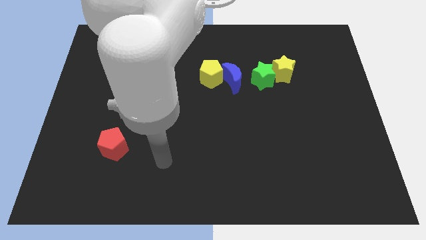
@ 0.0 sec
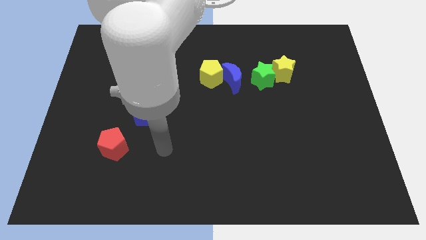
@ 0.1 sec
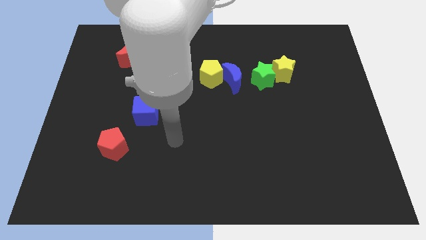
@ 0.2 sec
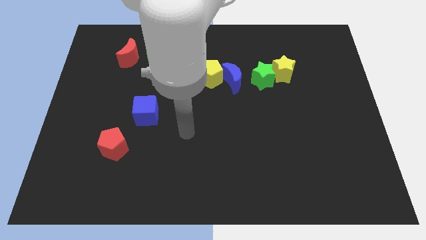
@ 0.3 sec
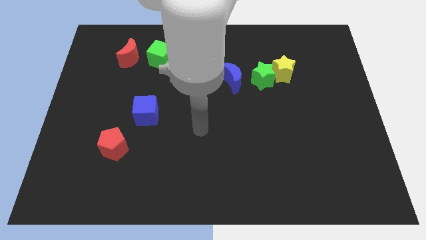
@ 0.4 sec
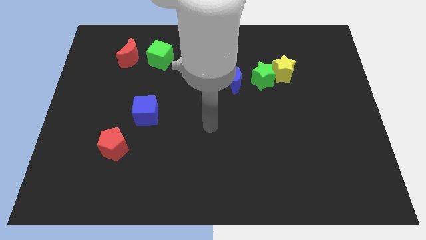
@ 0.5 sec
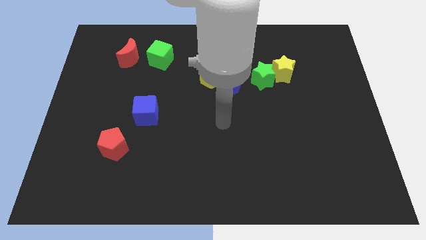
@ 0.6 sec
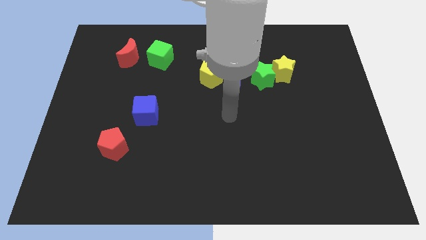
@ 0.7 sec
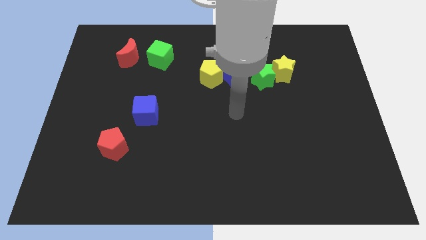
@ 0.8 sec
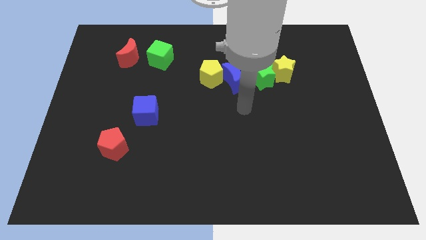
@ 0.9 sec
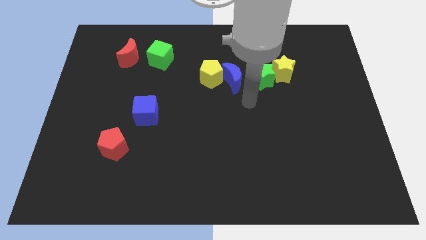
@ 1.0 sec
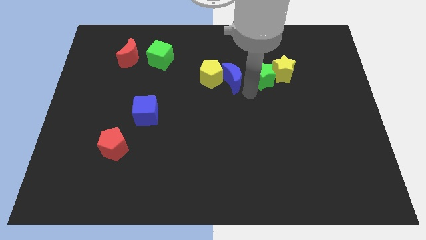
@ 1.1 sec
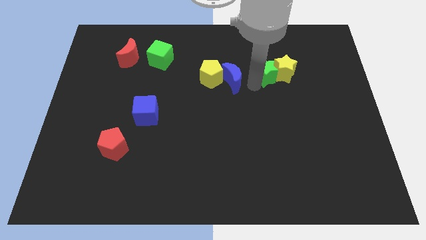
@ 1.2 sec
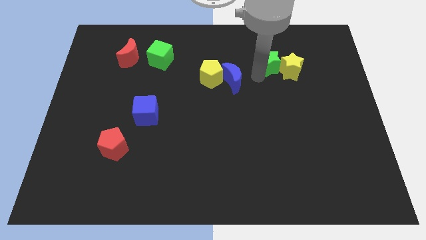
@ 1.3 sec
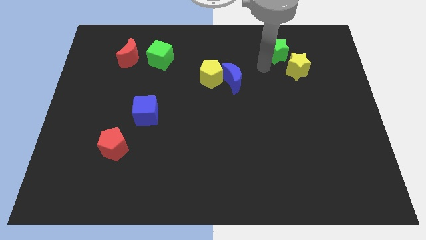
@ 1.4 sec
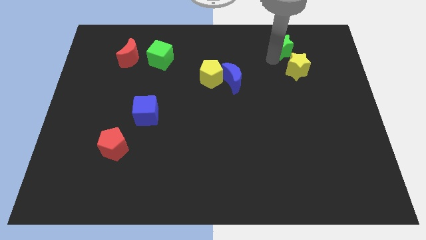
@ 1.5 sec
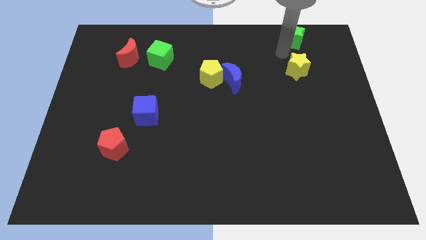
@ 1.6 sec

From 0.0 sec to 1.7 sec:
move the yellow star away from the green star

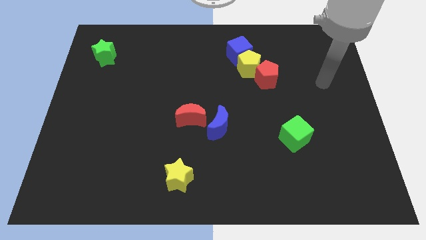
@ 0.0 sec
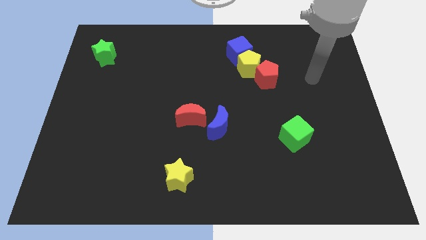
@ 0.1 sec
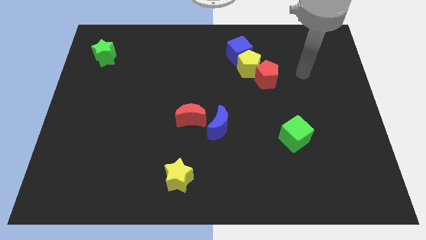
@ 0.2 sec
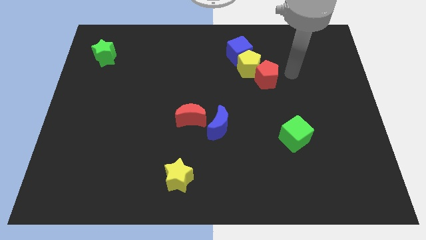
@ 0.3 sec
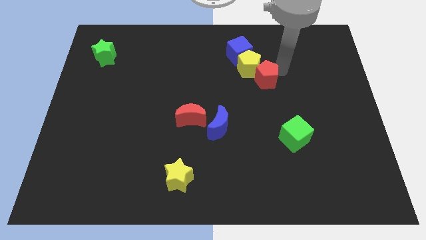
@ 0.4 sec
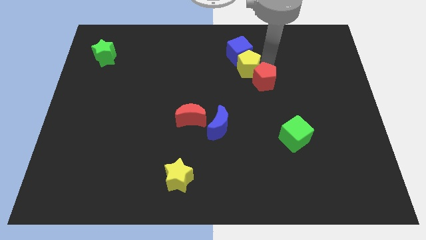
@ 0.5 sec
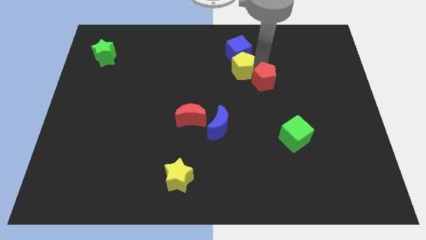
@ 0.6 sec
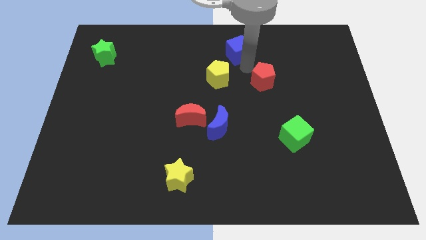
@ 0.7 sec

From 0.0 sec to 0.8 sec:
separate the red pentagon from the yellow pentagon

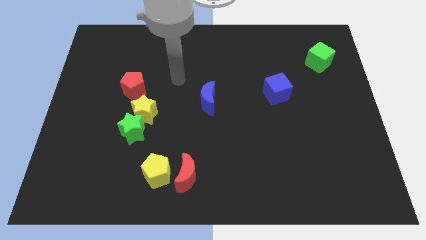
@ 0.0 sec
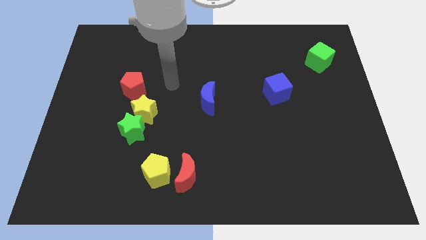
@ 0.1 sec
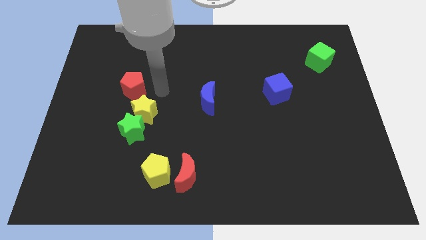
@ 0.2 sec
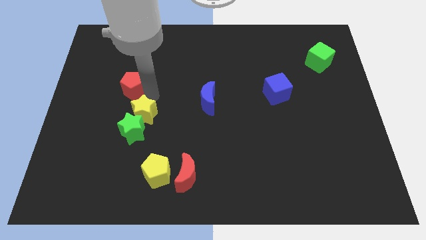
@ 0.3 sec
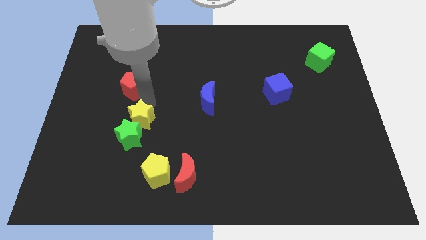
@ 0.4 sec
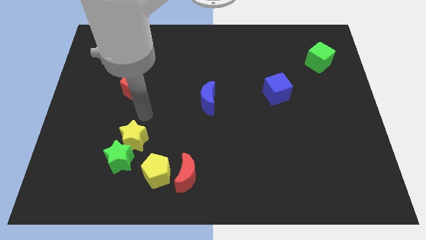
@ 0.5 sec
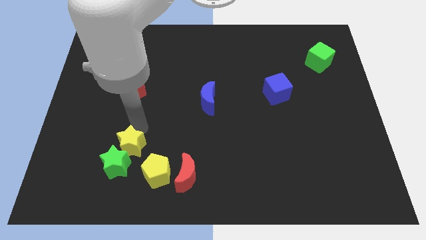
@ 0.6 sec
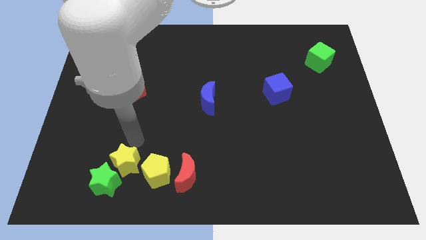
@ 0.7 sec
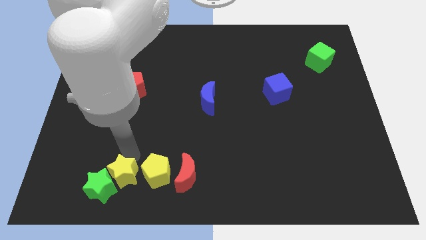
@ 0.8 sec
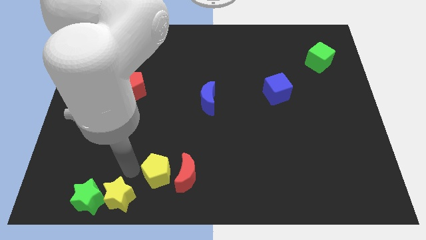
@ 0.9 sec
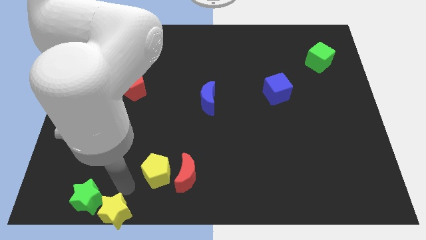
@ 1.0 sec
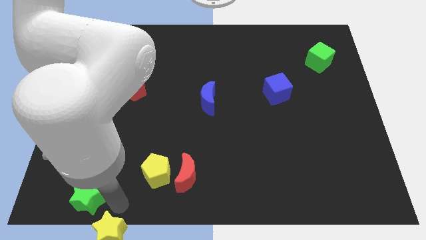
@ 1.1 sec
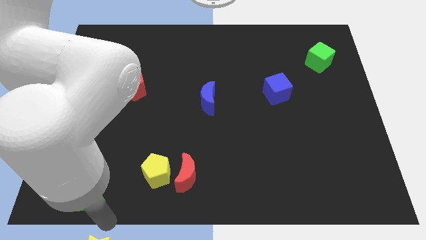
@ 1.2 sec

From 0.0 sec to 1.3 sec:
move the green star away from the yellow star

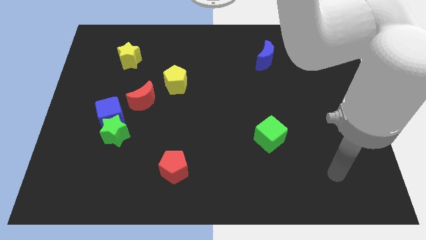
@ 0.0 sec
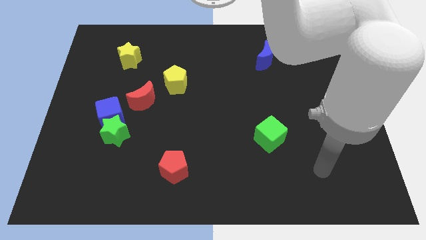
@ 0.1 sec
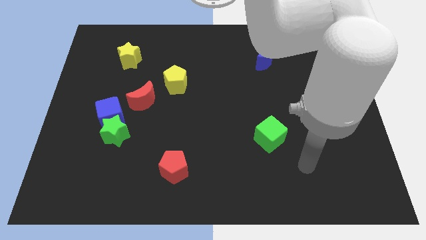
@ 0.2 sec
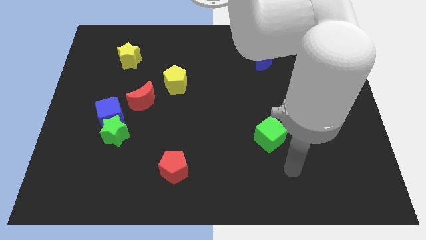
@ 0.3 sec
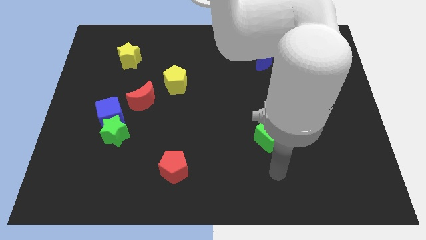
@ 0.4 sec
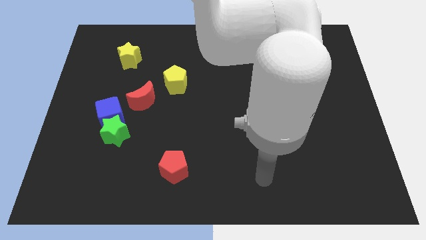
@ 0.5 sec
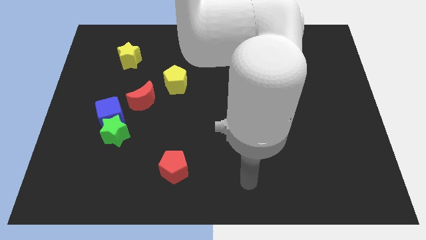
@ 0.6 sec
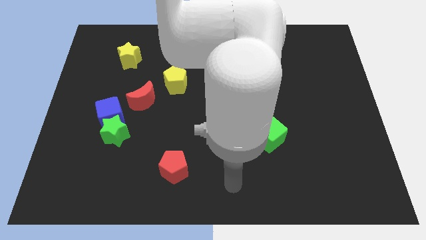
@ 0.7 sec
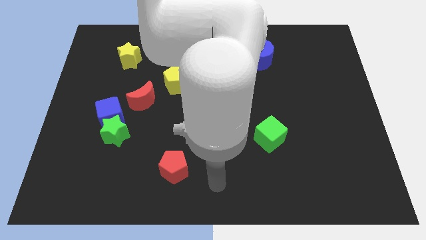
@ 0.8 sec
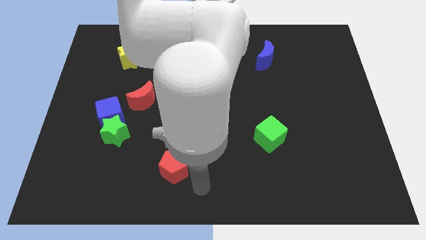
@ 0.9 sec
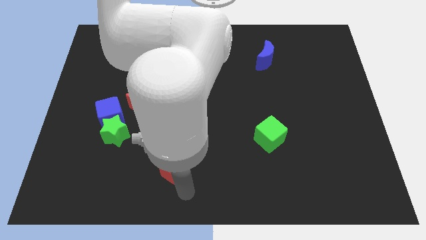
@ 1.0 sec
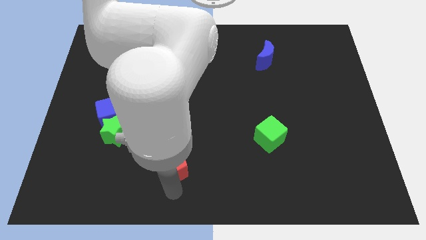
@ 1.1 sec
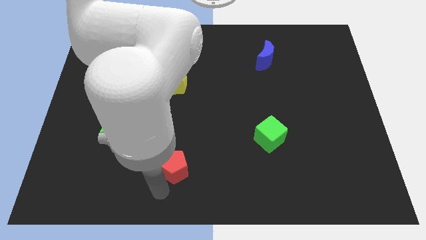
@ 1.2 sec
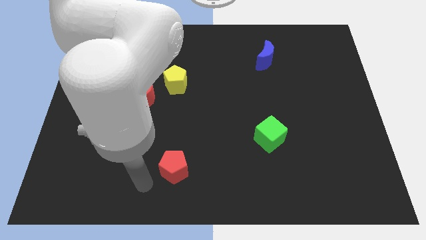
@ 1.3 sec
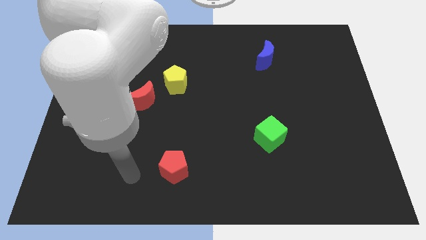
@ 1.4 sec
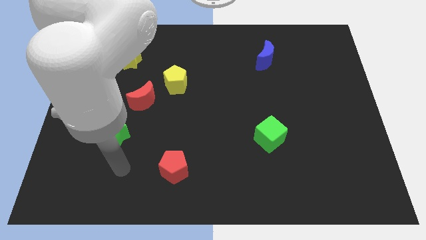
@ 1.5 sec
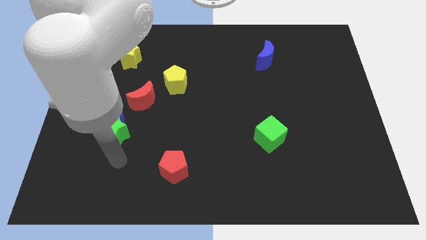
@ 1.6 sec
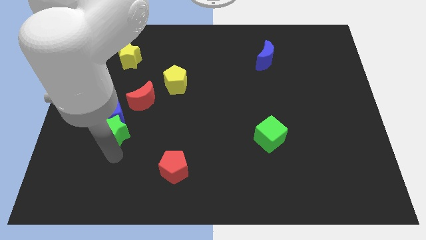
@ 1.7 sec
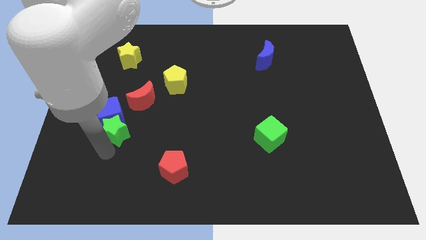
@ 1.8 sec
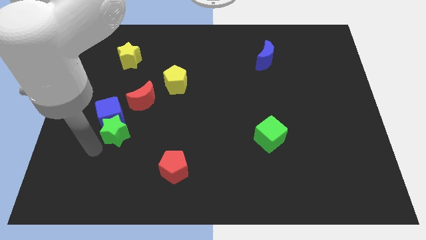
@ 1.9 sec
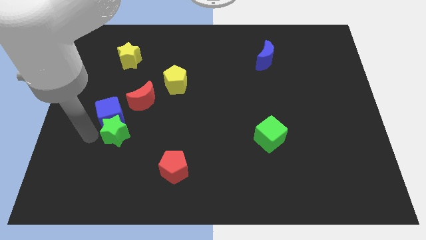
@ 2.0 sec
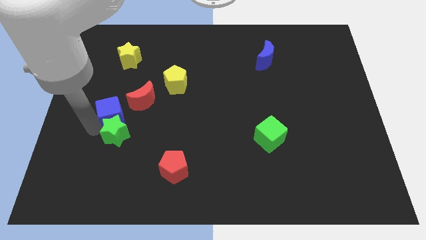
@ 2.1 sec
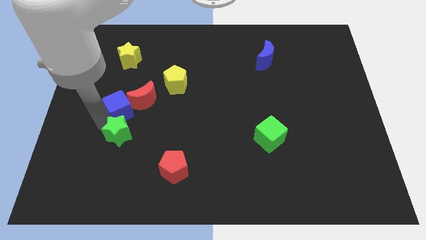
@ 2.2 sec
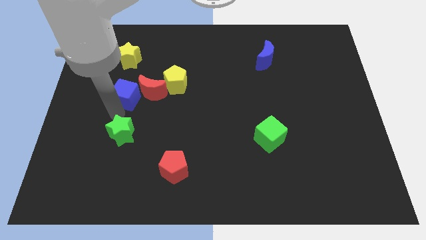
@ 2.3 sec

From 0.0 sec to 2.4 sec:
move the green star away from the blue cube

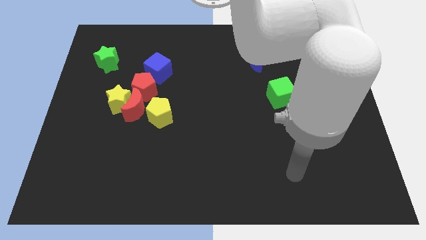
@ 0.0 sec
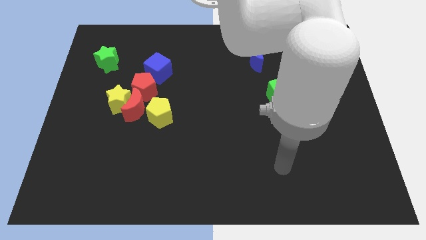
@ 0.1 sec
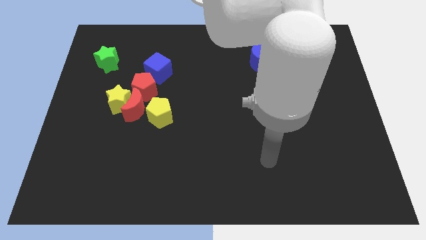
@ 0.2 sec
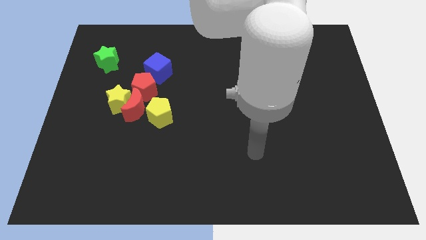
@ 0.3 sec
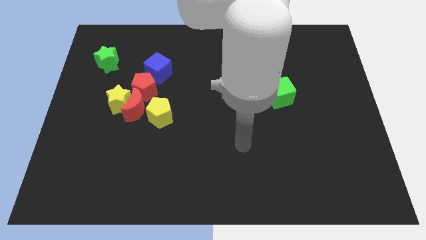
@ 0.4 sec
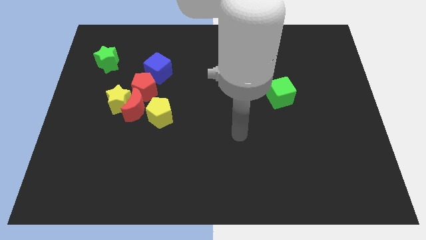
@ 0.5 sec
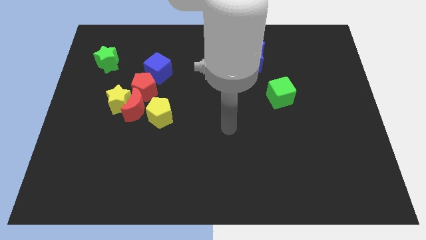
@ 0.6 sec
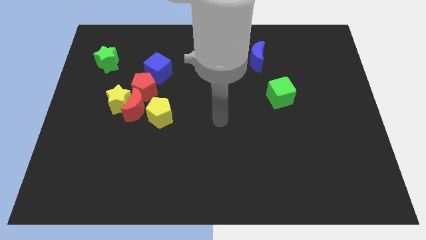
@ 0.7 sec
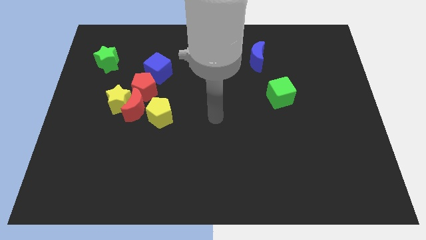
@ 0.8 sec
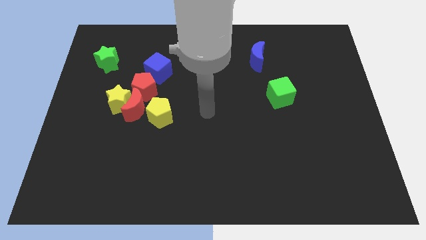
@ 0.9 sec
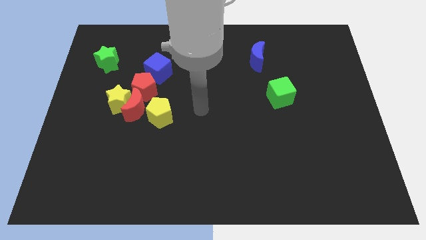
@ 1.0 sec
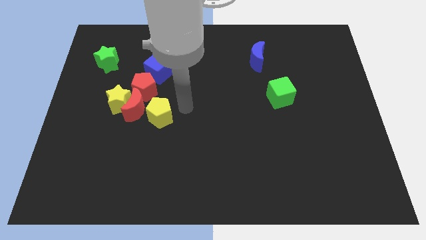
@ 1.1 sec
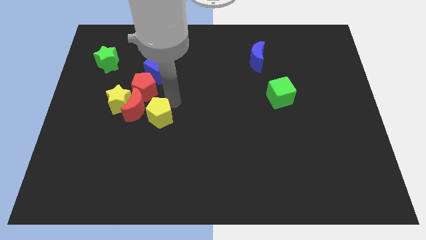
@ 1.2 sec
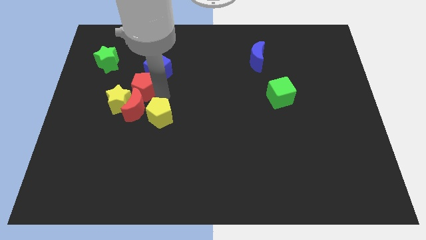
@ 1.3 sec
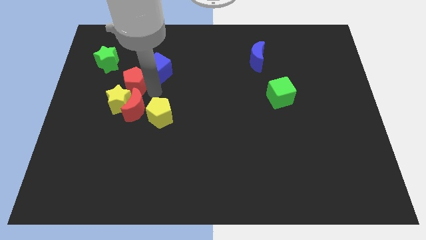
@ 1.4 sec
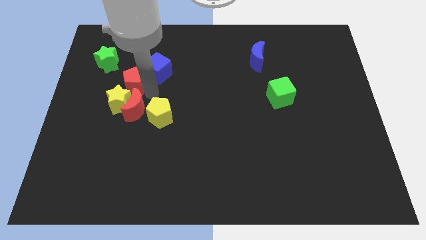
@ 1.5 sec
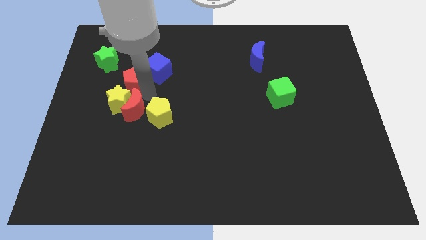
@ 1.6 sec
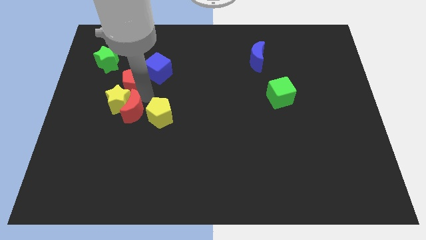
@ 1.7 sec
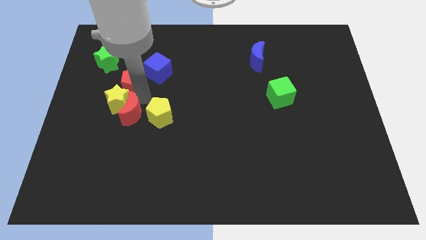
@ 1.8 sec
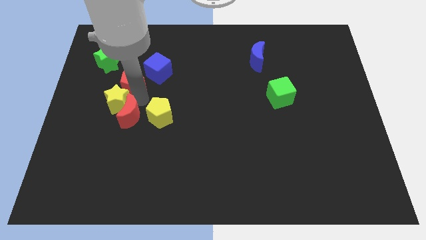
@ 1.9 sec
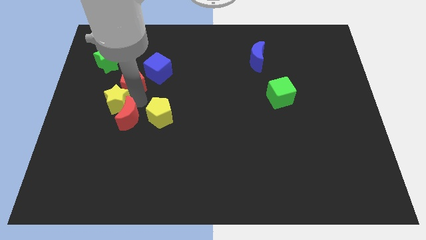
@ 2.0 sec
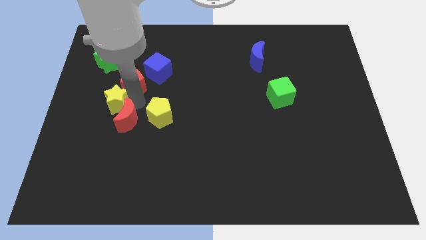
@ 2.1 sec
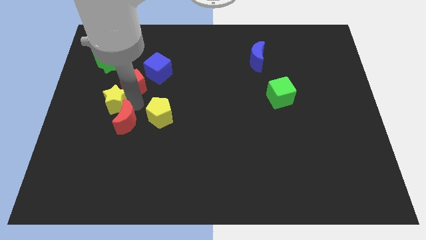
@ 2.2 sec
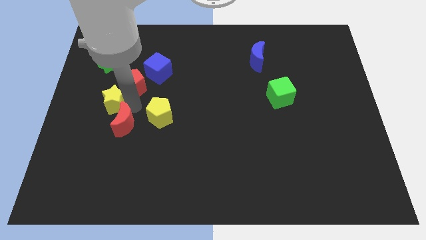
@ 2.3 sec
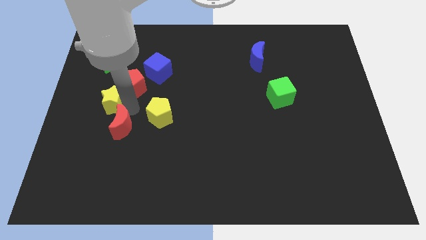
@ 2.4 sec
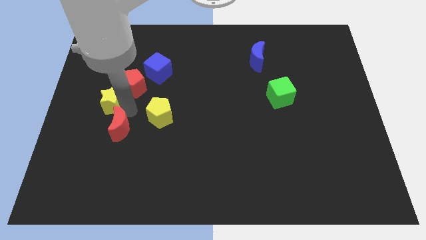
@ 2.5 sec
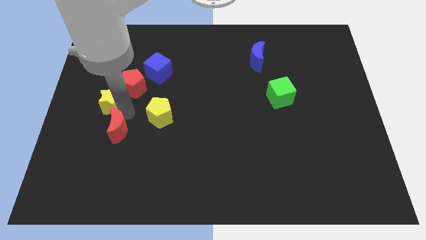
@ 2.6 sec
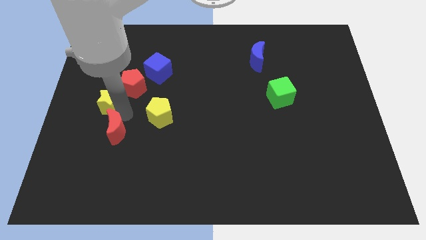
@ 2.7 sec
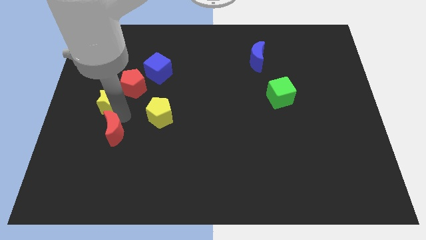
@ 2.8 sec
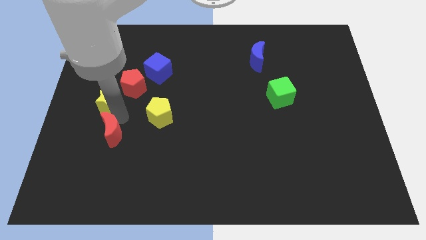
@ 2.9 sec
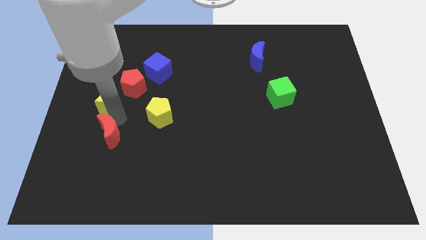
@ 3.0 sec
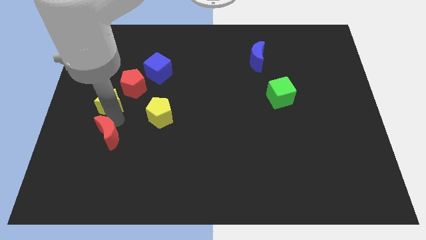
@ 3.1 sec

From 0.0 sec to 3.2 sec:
pull the red moon apart from the clump
